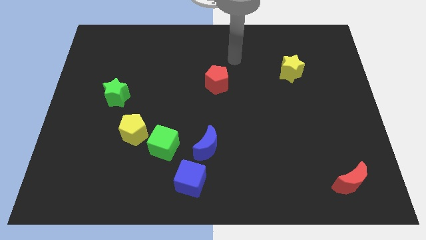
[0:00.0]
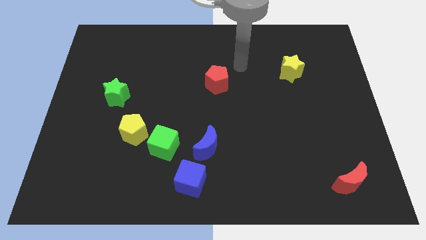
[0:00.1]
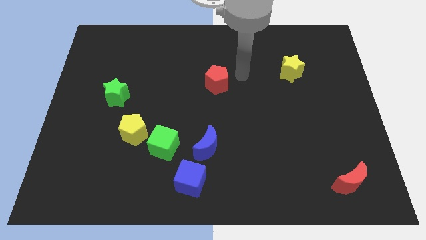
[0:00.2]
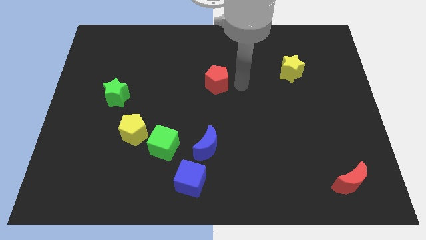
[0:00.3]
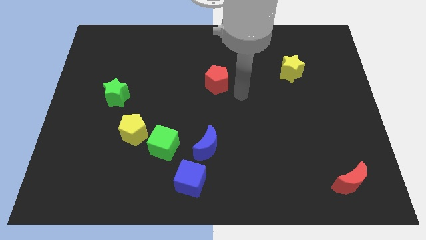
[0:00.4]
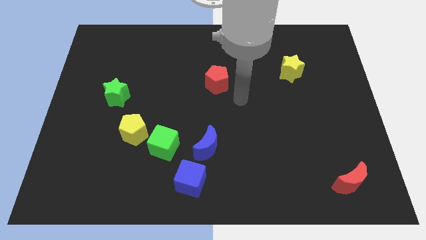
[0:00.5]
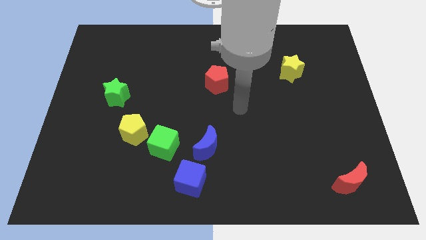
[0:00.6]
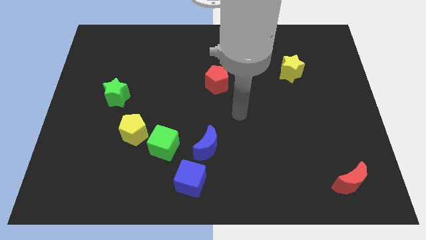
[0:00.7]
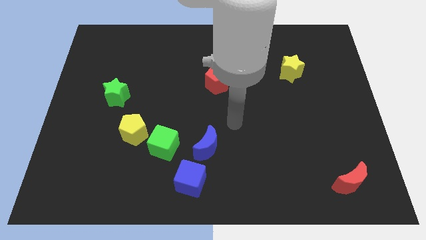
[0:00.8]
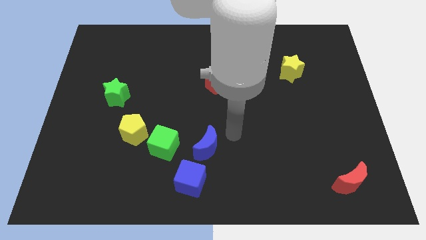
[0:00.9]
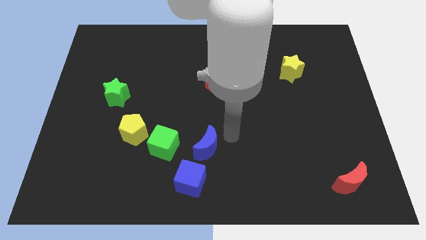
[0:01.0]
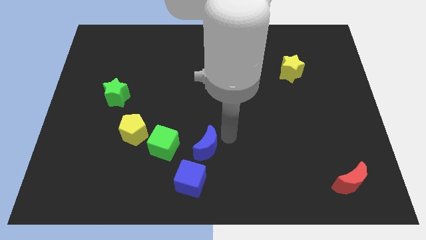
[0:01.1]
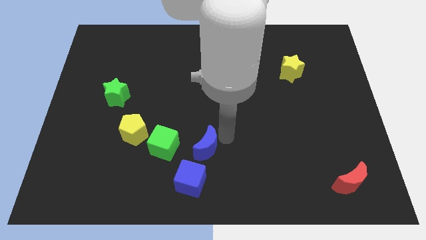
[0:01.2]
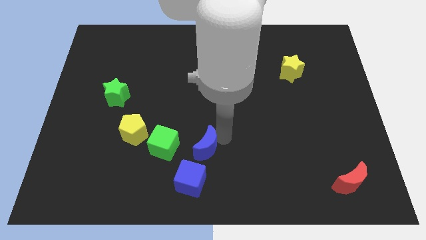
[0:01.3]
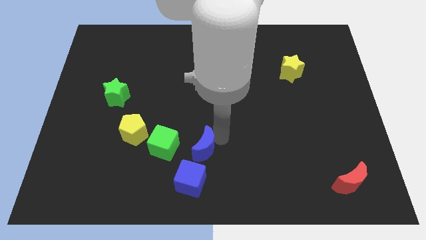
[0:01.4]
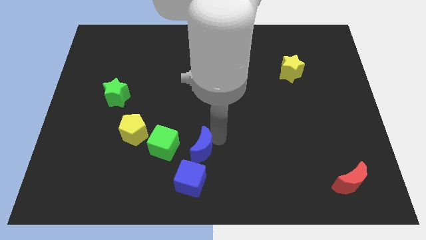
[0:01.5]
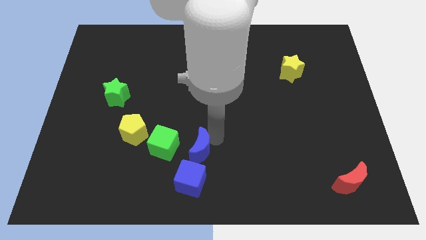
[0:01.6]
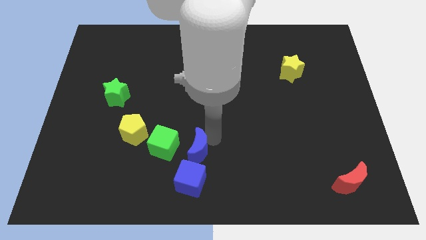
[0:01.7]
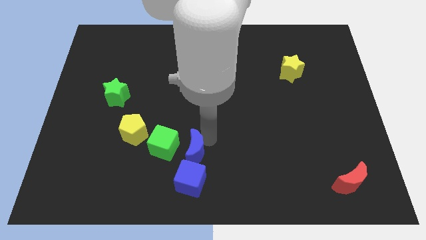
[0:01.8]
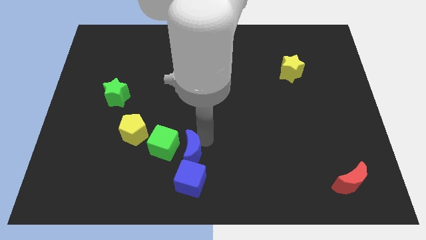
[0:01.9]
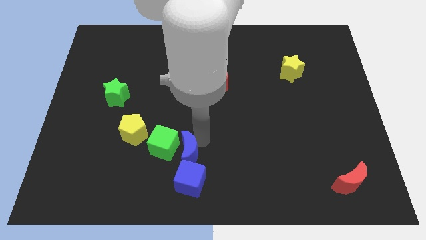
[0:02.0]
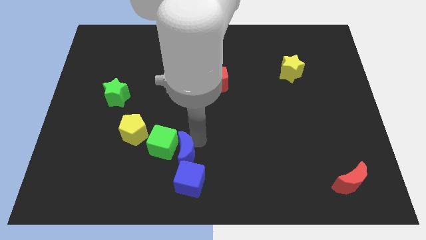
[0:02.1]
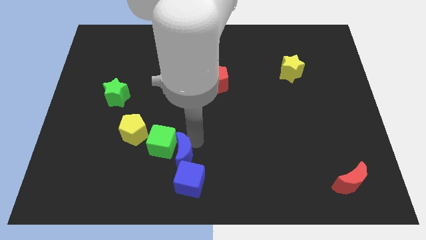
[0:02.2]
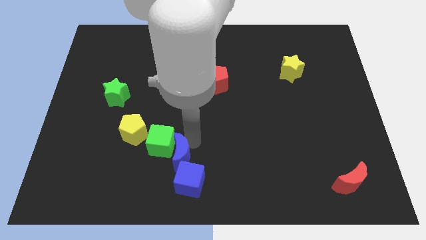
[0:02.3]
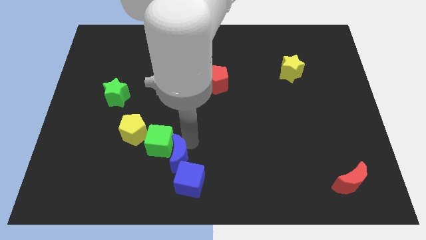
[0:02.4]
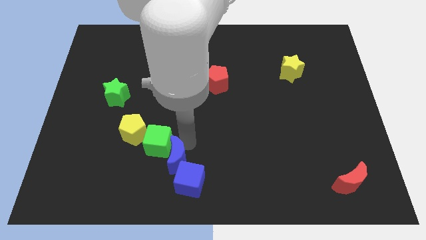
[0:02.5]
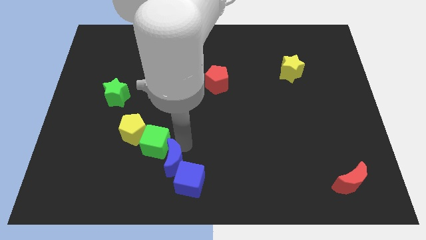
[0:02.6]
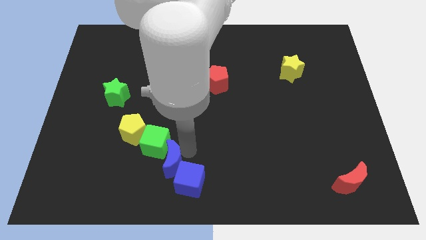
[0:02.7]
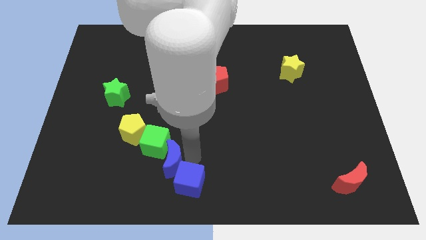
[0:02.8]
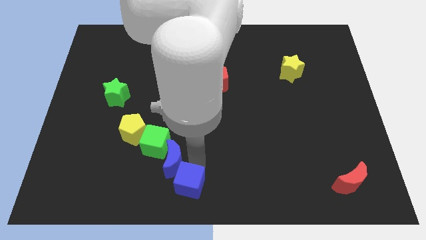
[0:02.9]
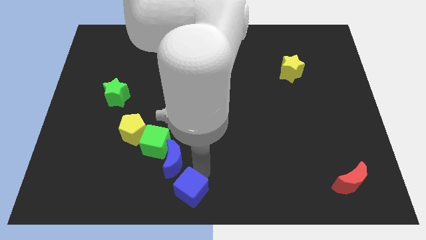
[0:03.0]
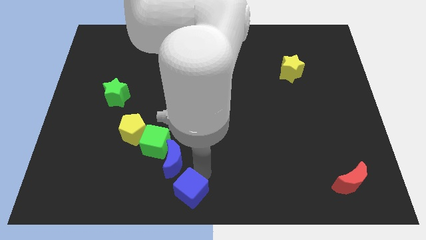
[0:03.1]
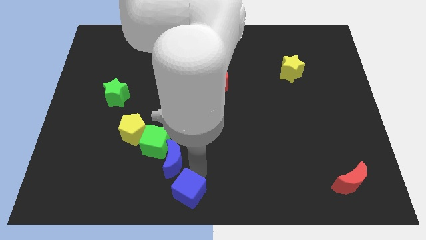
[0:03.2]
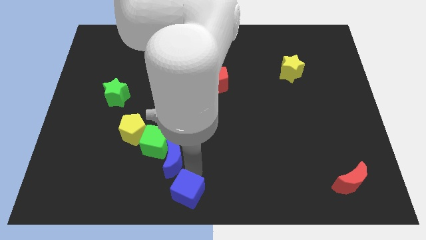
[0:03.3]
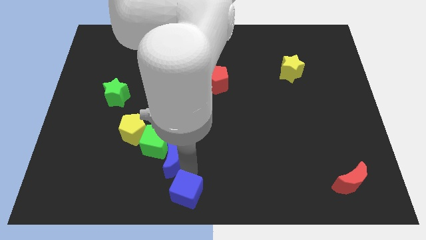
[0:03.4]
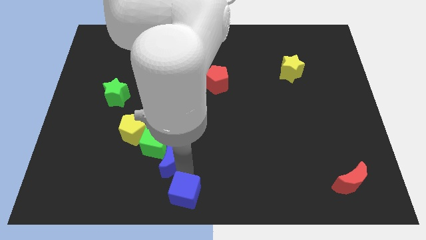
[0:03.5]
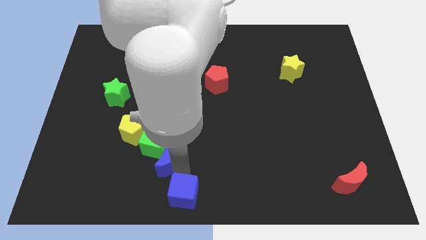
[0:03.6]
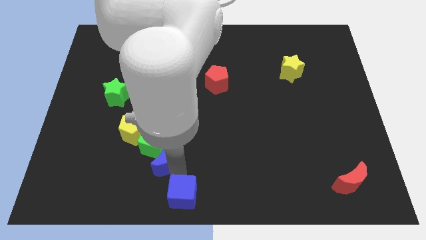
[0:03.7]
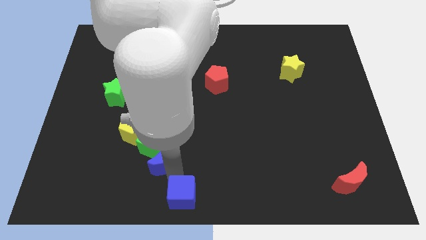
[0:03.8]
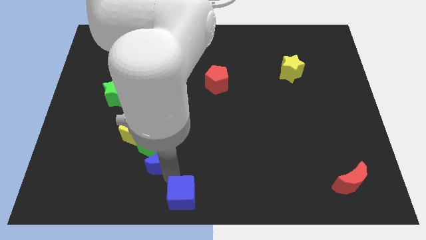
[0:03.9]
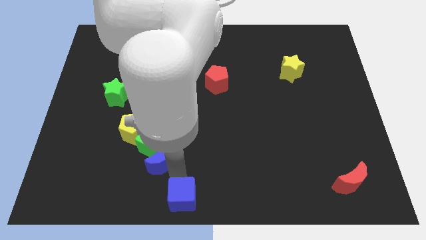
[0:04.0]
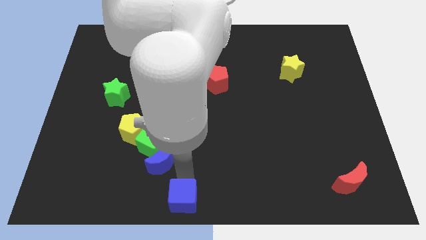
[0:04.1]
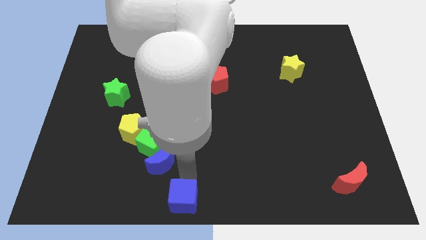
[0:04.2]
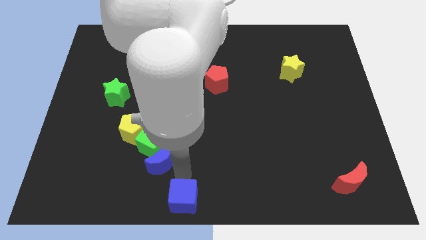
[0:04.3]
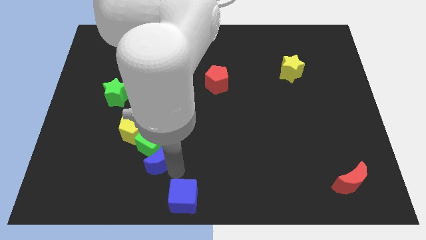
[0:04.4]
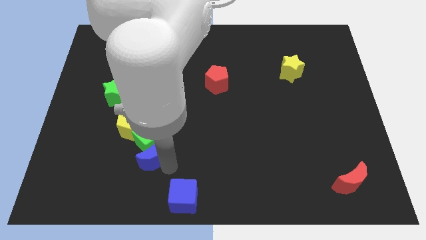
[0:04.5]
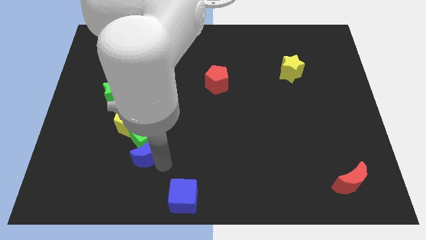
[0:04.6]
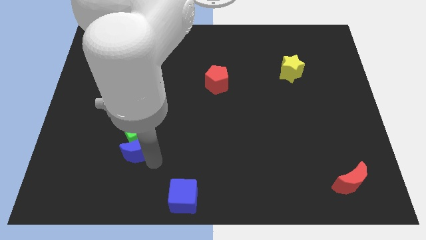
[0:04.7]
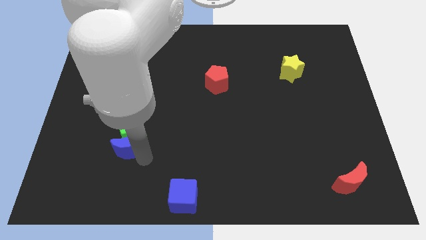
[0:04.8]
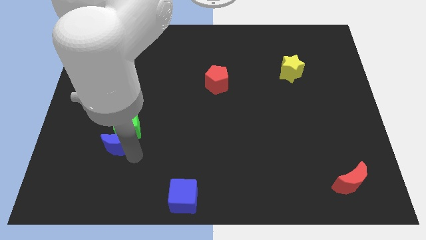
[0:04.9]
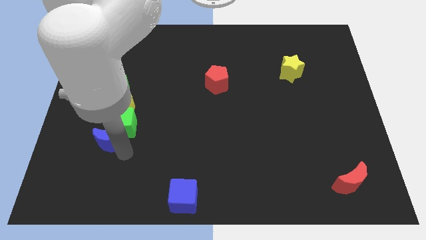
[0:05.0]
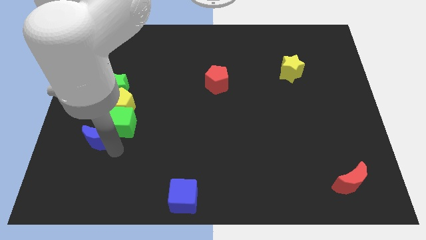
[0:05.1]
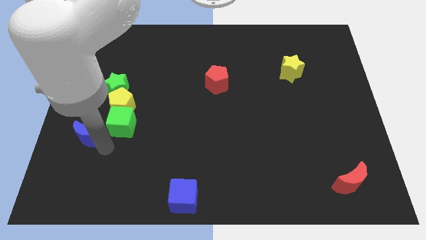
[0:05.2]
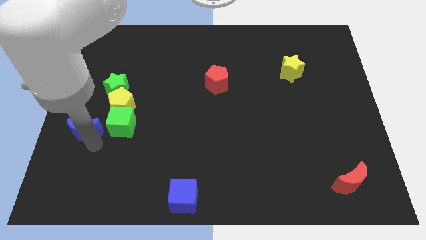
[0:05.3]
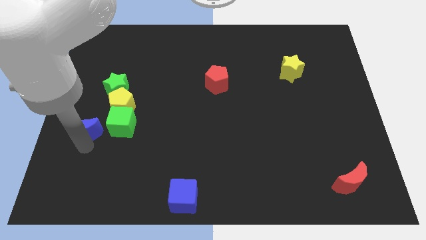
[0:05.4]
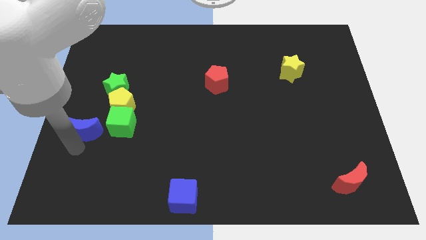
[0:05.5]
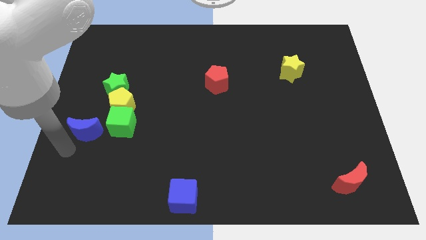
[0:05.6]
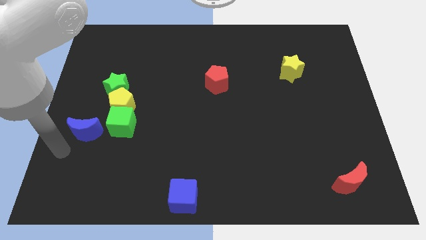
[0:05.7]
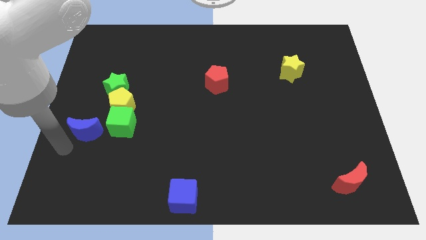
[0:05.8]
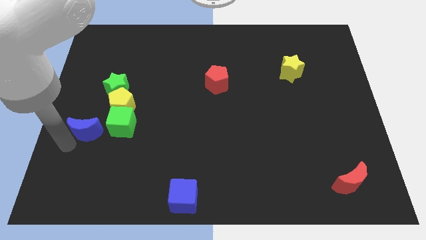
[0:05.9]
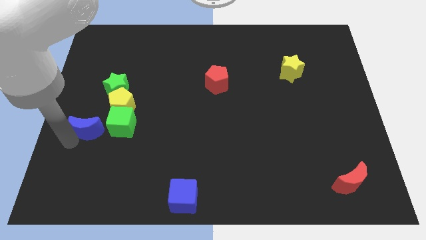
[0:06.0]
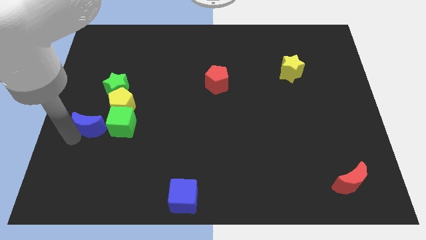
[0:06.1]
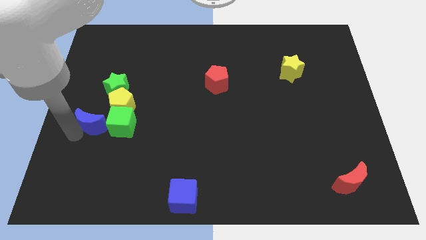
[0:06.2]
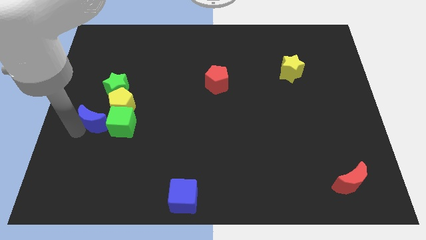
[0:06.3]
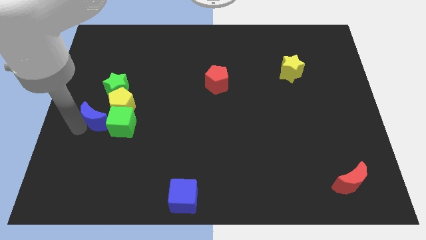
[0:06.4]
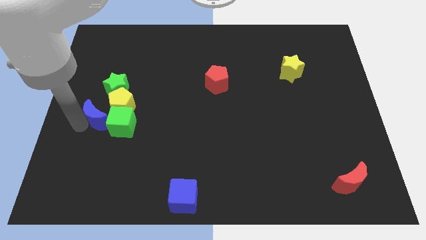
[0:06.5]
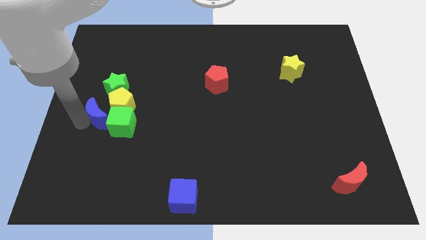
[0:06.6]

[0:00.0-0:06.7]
push the blue moon next to the yellow pentagon

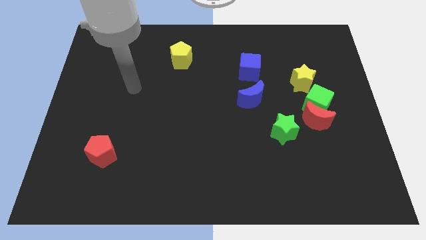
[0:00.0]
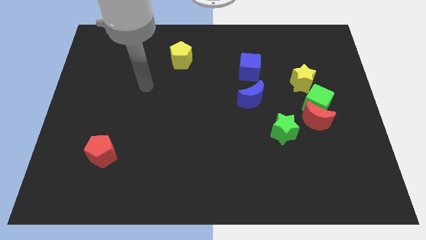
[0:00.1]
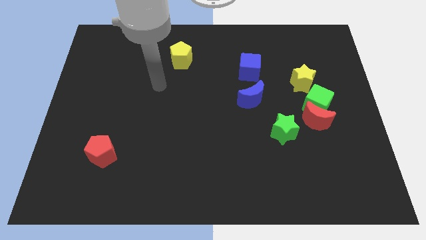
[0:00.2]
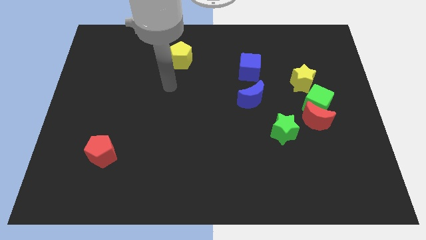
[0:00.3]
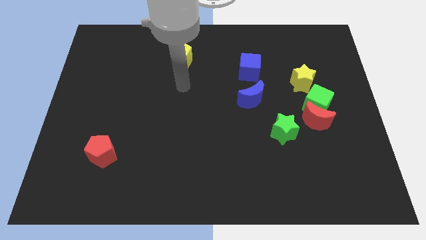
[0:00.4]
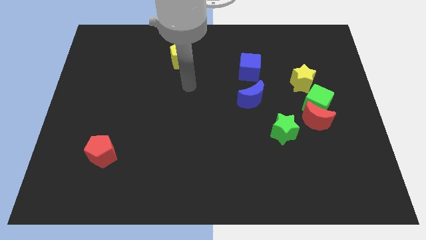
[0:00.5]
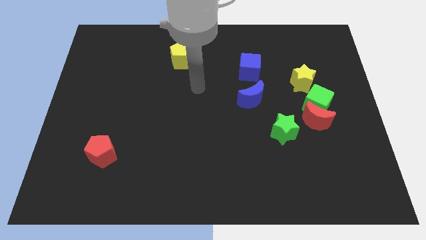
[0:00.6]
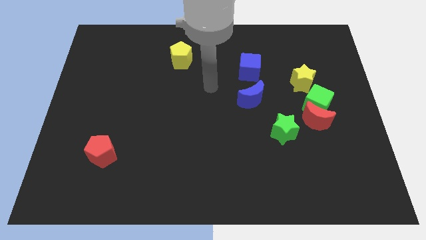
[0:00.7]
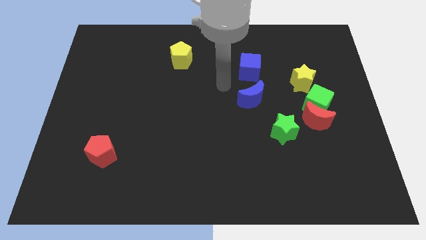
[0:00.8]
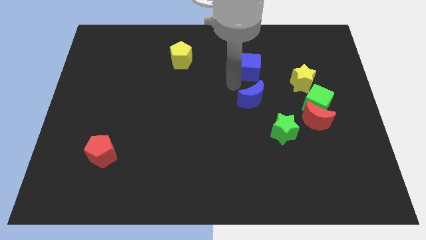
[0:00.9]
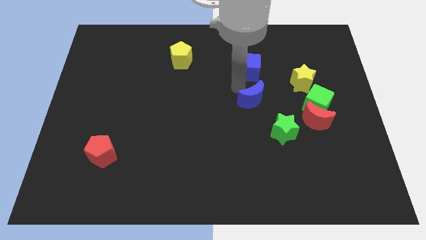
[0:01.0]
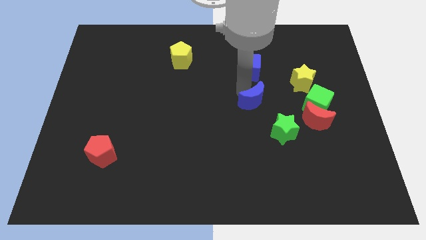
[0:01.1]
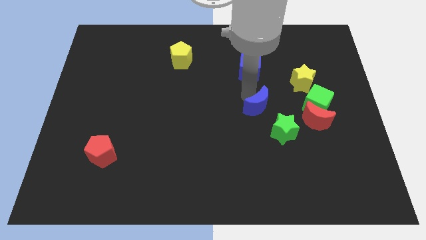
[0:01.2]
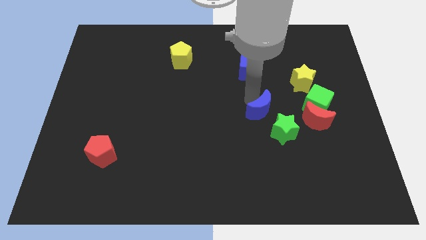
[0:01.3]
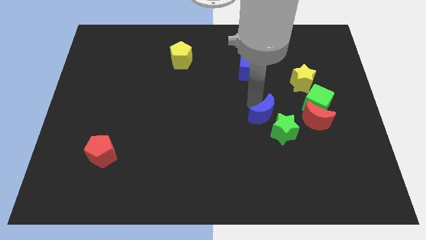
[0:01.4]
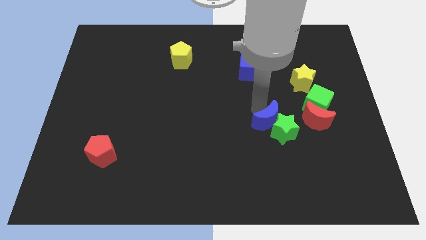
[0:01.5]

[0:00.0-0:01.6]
slide the blue moon close to the green star
